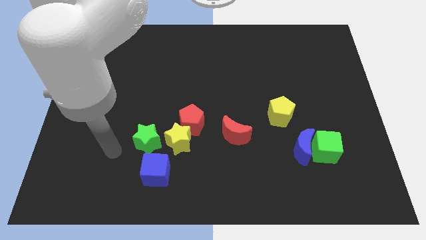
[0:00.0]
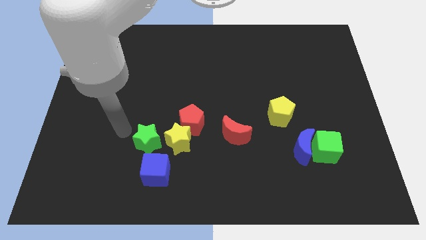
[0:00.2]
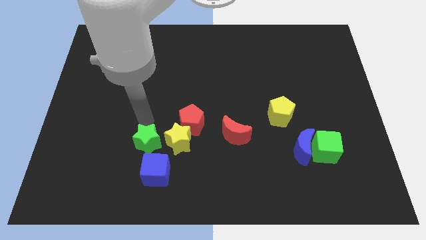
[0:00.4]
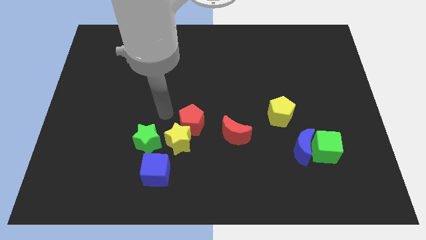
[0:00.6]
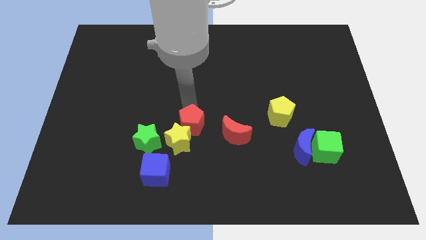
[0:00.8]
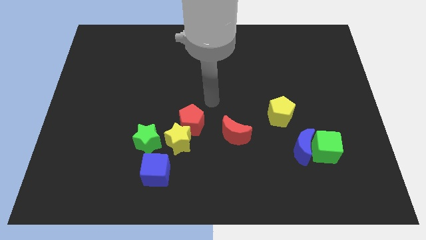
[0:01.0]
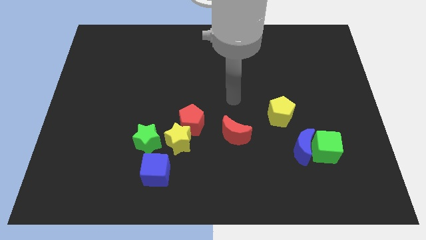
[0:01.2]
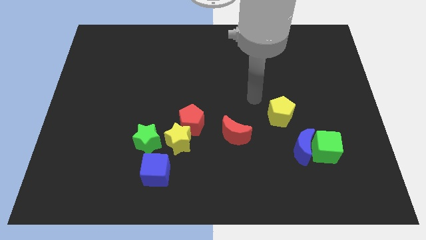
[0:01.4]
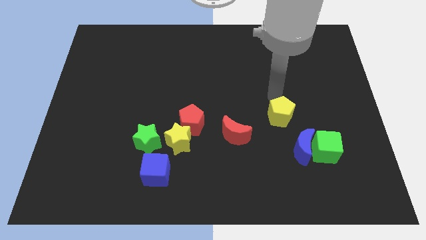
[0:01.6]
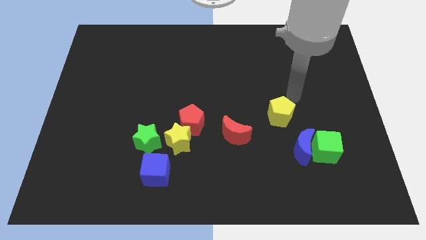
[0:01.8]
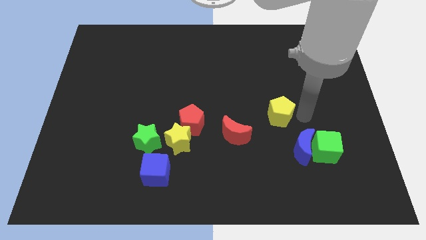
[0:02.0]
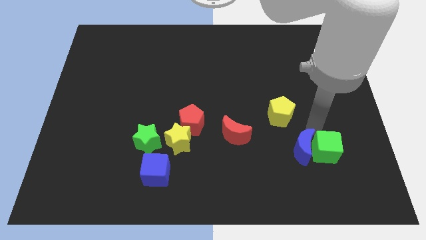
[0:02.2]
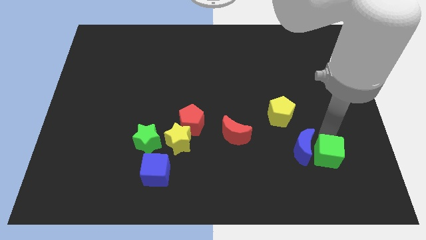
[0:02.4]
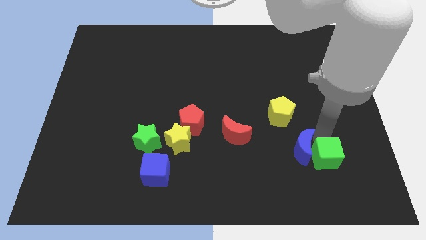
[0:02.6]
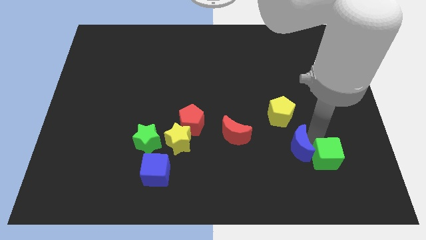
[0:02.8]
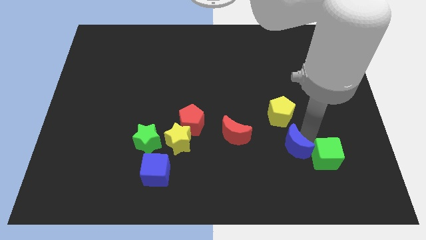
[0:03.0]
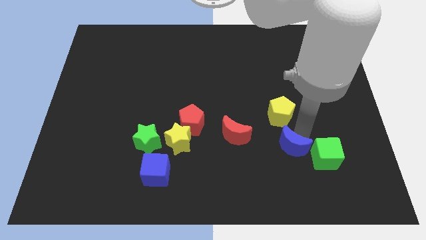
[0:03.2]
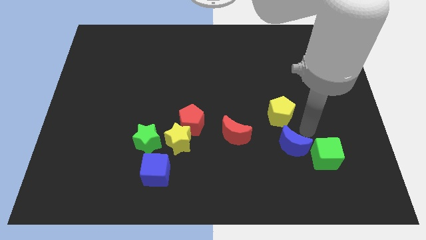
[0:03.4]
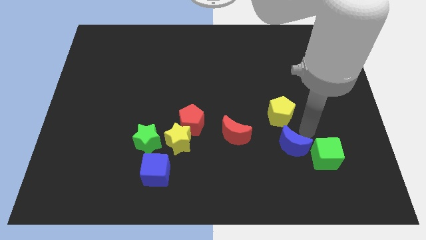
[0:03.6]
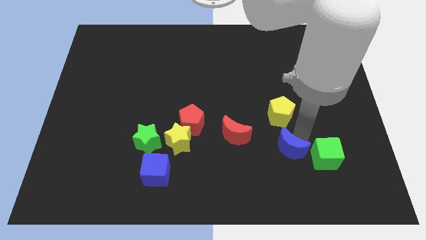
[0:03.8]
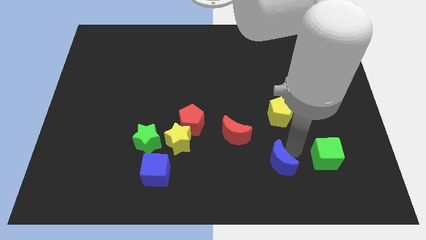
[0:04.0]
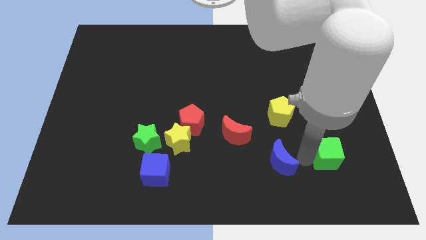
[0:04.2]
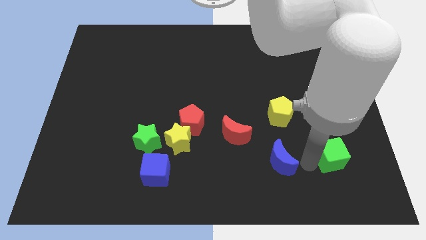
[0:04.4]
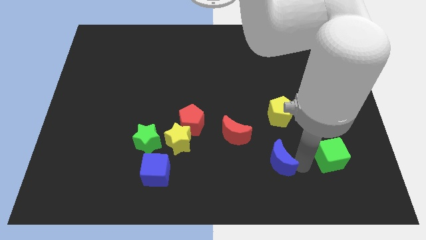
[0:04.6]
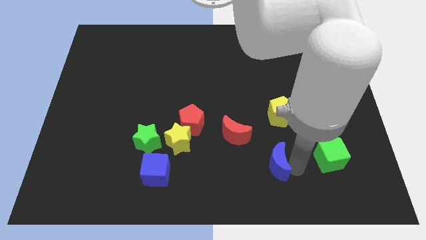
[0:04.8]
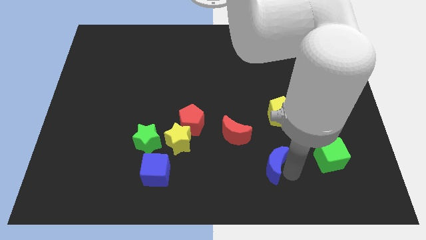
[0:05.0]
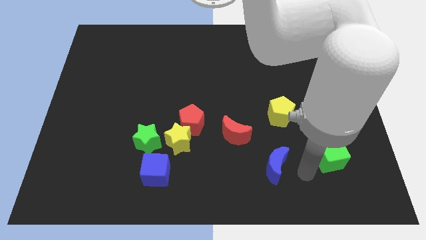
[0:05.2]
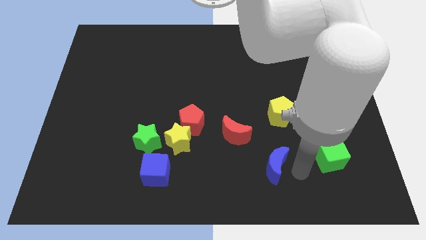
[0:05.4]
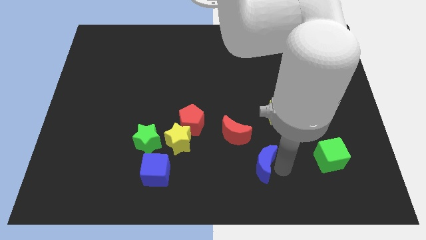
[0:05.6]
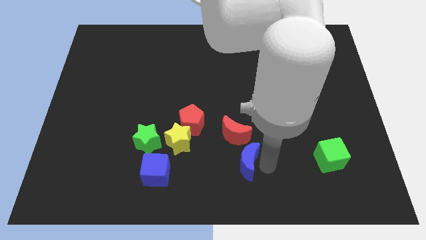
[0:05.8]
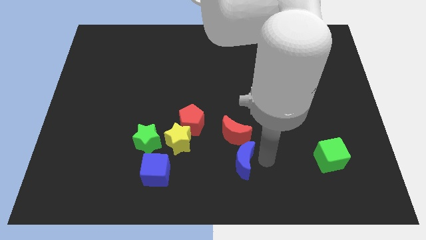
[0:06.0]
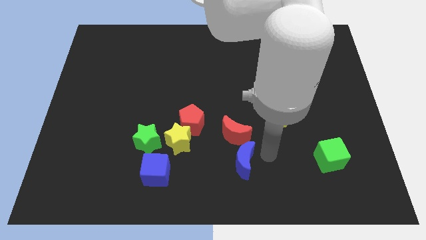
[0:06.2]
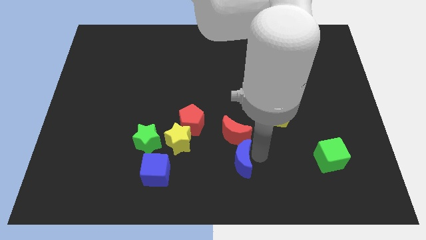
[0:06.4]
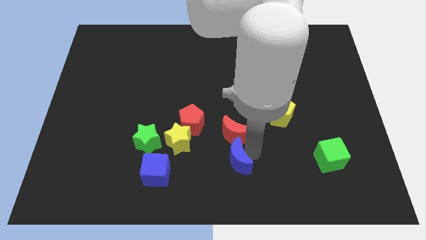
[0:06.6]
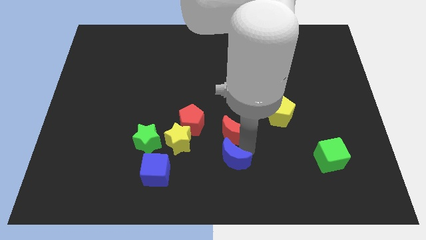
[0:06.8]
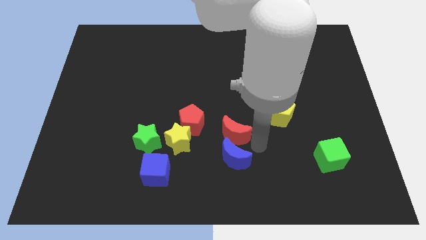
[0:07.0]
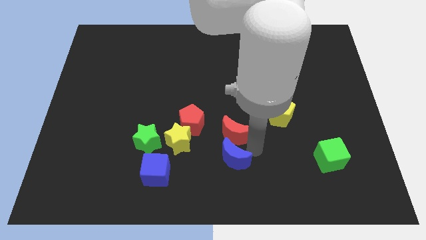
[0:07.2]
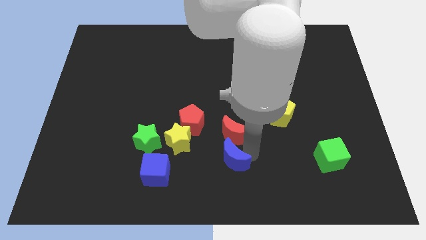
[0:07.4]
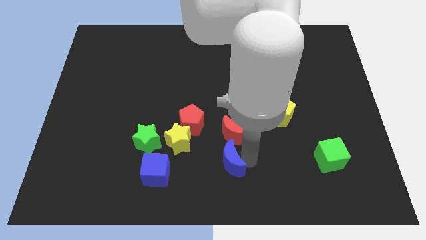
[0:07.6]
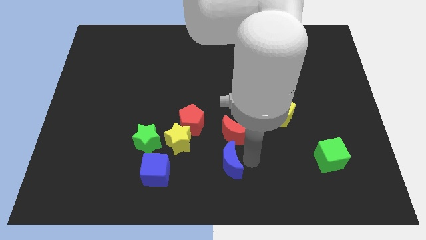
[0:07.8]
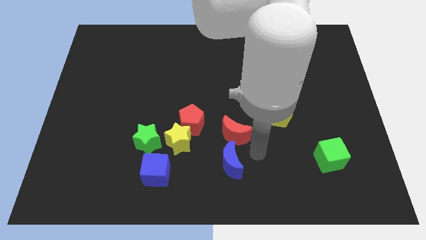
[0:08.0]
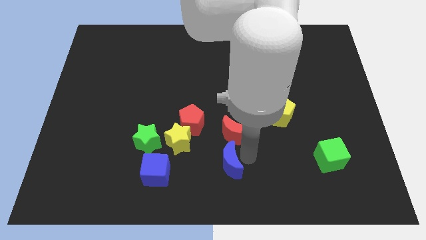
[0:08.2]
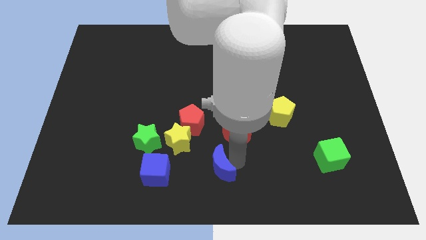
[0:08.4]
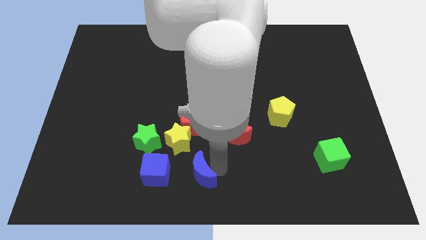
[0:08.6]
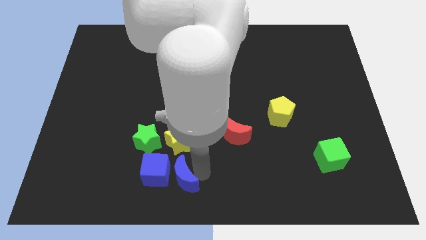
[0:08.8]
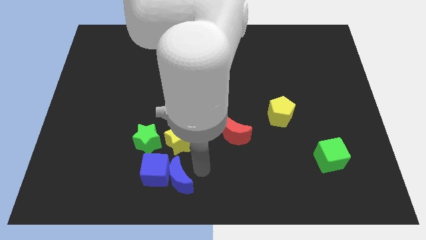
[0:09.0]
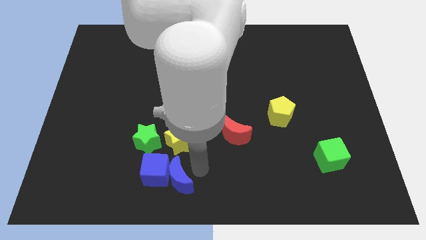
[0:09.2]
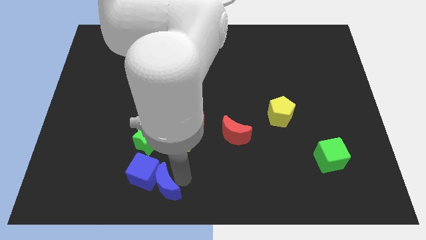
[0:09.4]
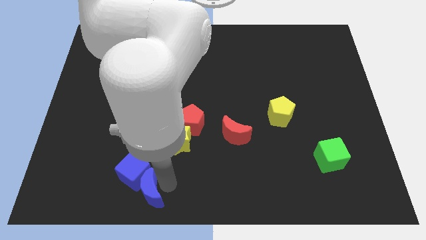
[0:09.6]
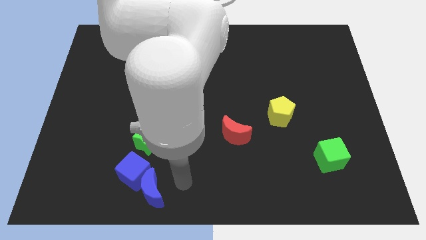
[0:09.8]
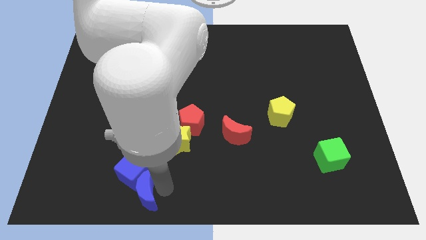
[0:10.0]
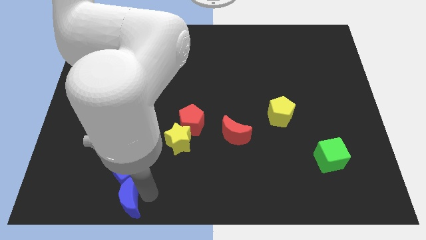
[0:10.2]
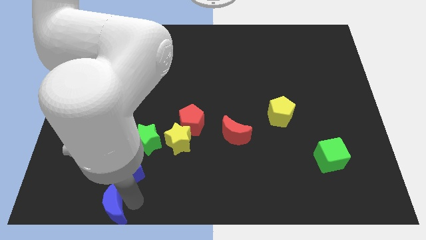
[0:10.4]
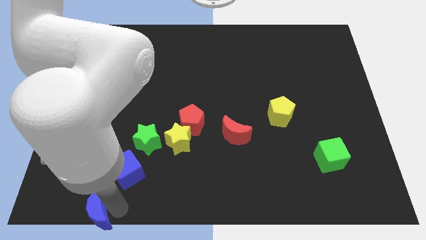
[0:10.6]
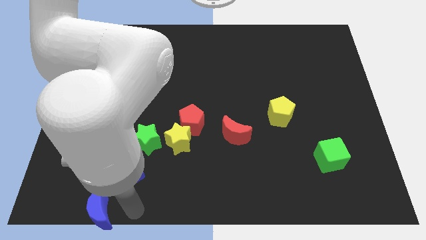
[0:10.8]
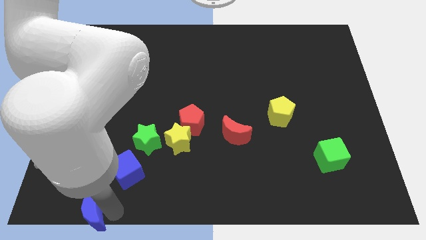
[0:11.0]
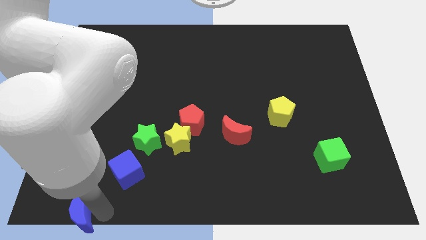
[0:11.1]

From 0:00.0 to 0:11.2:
push the blue moon to the bottom left
